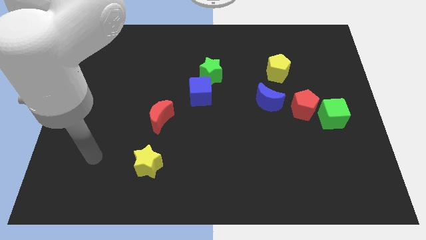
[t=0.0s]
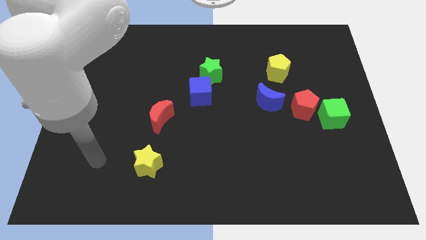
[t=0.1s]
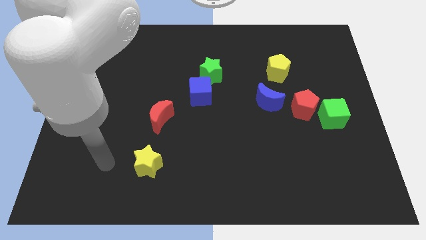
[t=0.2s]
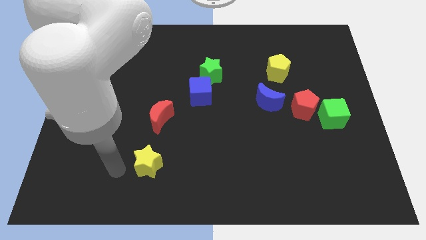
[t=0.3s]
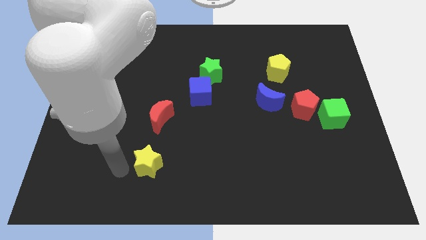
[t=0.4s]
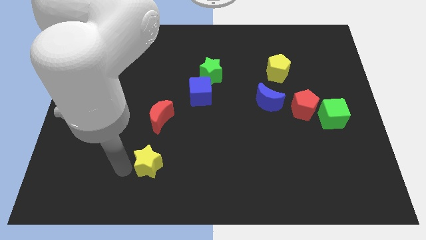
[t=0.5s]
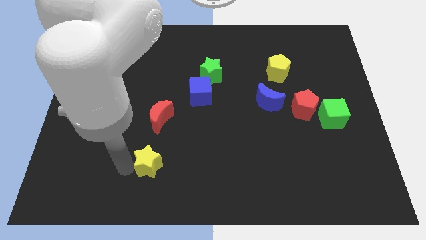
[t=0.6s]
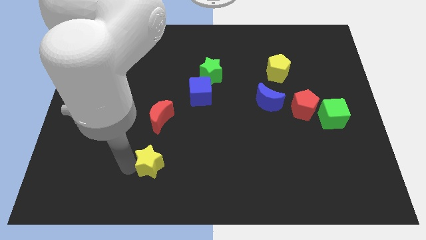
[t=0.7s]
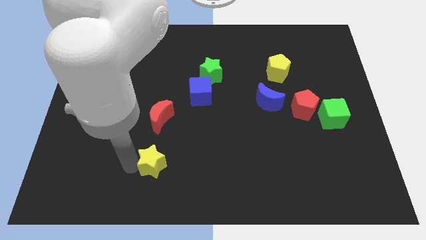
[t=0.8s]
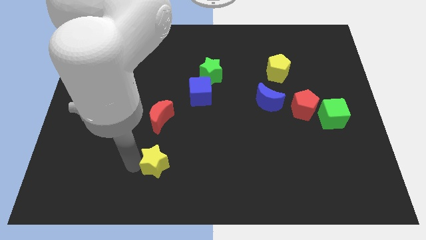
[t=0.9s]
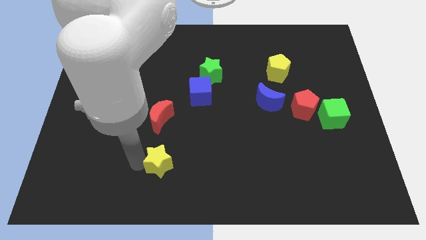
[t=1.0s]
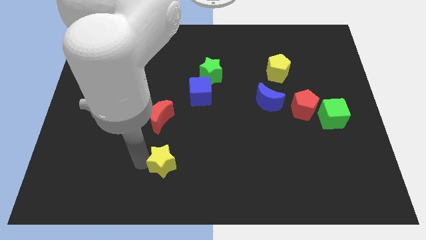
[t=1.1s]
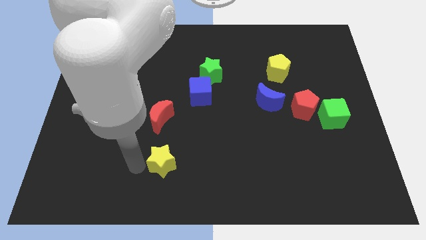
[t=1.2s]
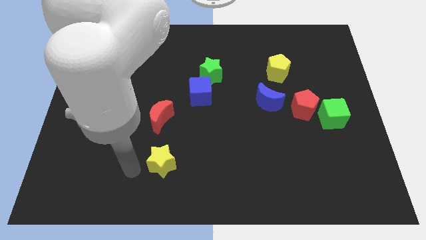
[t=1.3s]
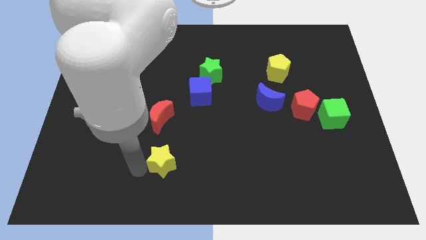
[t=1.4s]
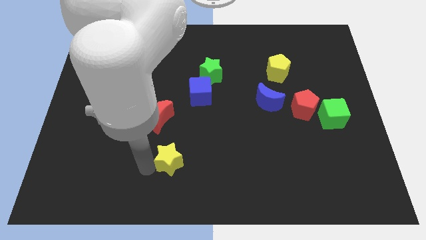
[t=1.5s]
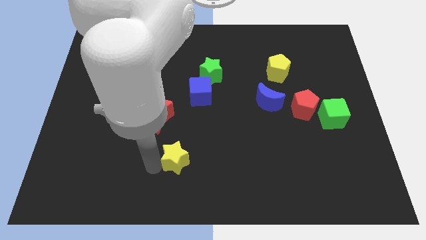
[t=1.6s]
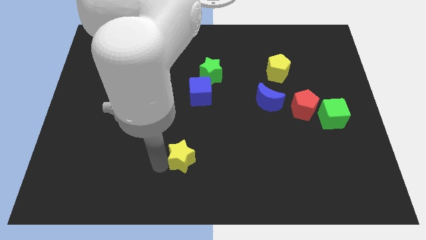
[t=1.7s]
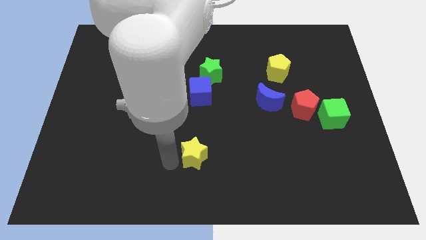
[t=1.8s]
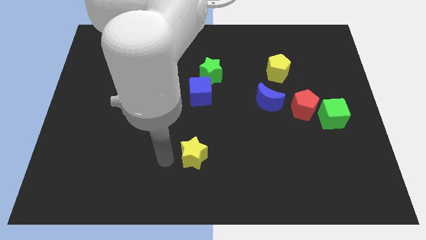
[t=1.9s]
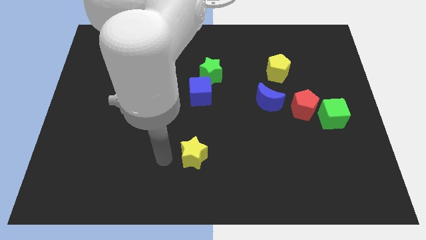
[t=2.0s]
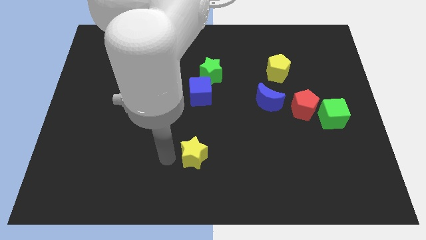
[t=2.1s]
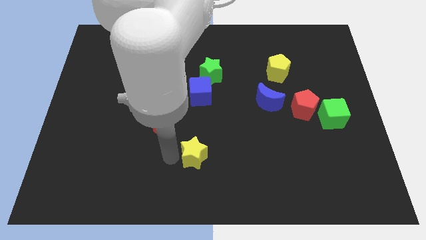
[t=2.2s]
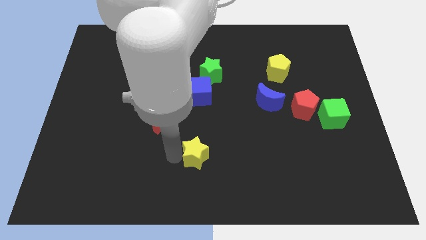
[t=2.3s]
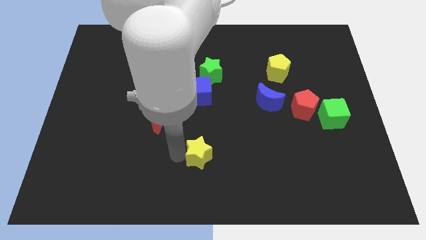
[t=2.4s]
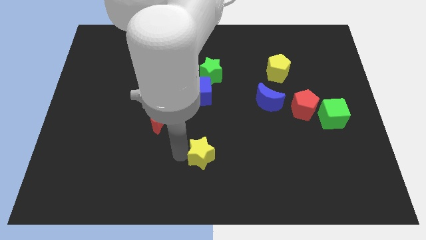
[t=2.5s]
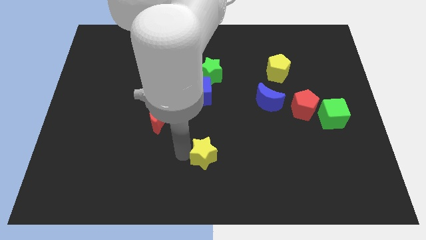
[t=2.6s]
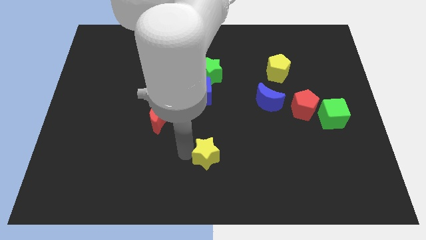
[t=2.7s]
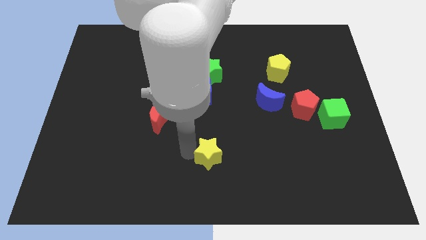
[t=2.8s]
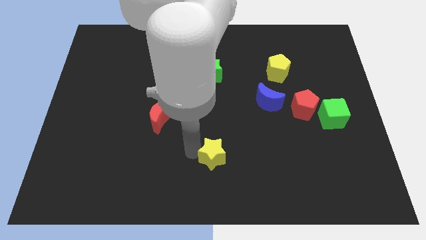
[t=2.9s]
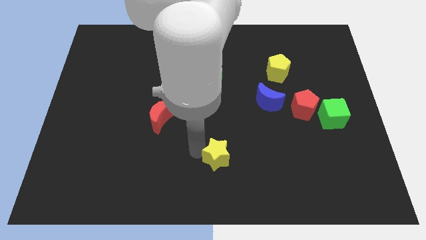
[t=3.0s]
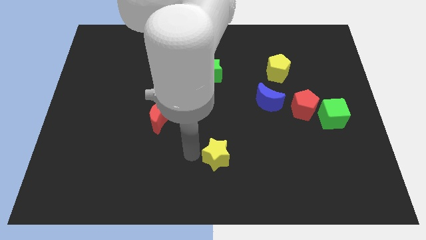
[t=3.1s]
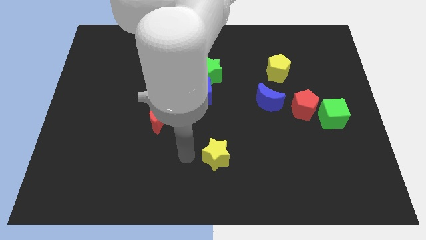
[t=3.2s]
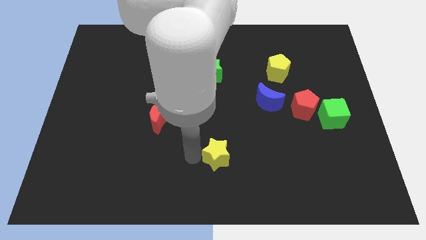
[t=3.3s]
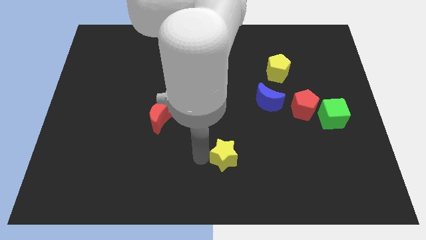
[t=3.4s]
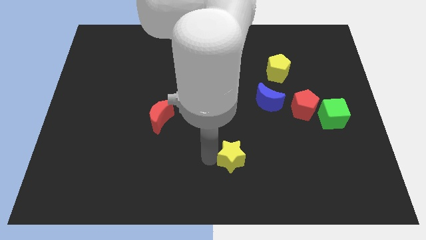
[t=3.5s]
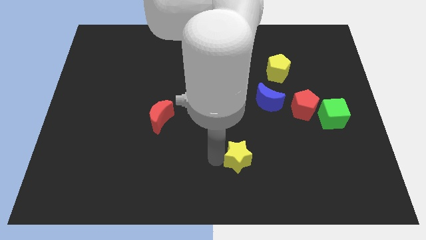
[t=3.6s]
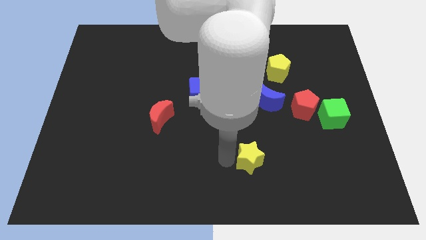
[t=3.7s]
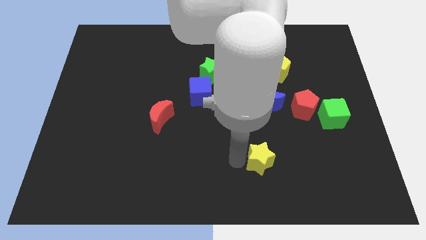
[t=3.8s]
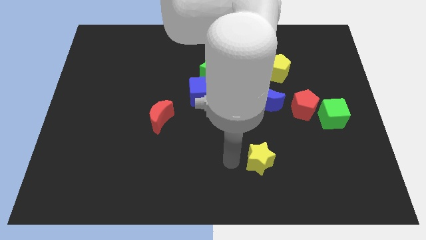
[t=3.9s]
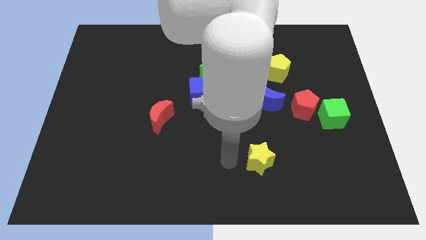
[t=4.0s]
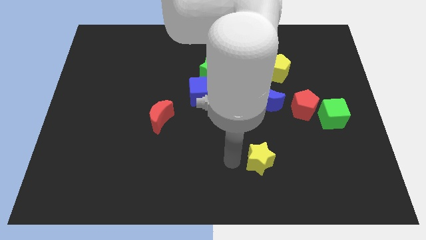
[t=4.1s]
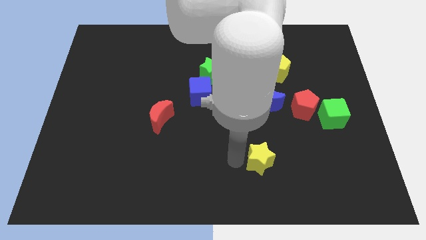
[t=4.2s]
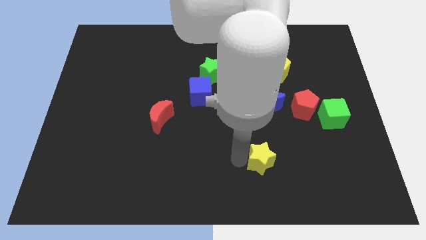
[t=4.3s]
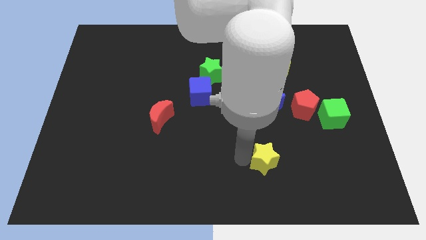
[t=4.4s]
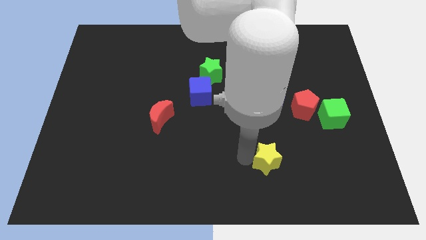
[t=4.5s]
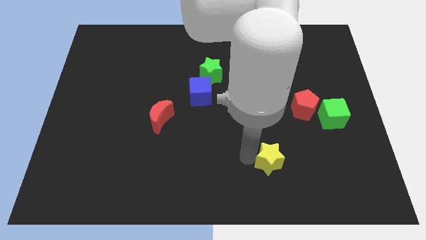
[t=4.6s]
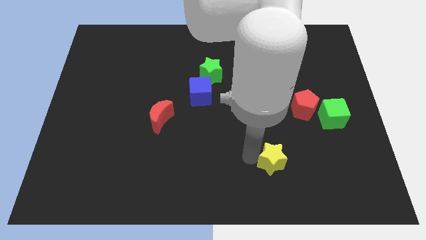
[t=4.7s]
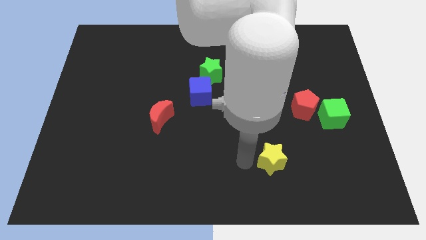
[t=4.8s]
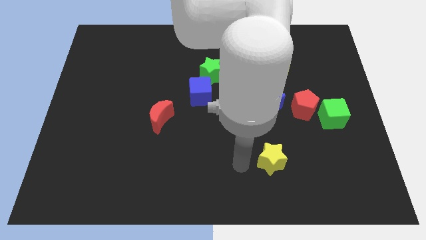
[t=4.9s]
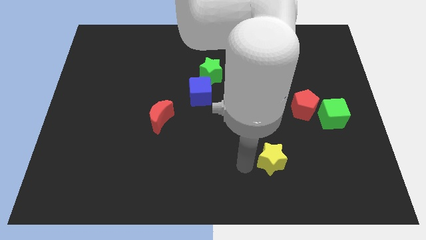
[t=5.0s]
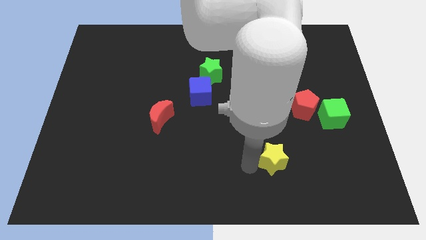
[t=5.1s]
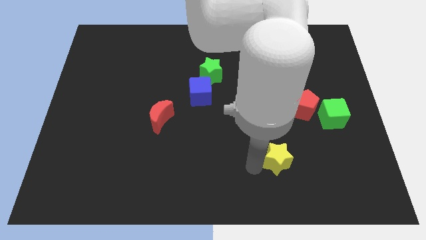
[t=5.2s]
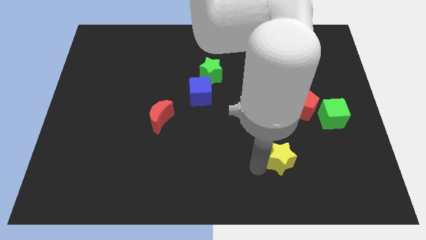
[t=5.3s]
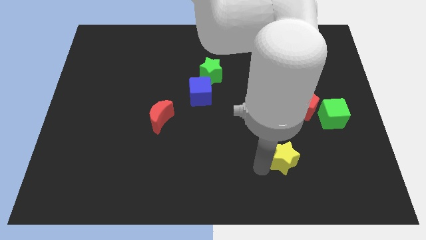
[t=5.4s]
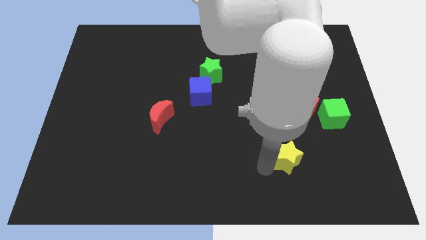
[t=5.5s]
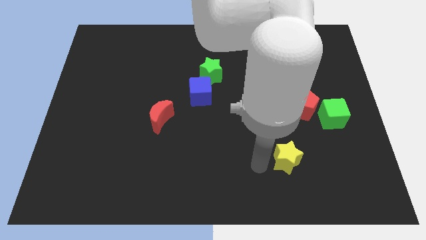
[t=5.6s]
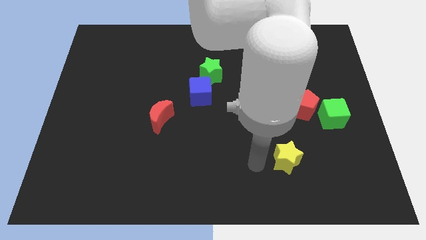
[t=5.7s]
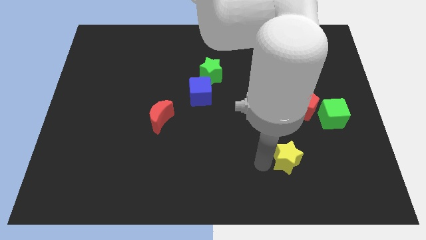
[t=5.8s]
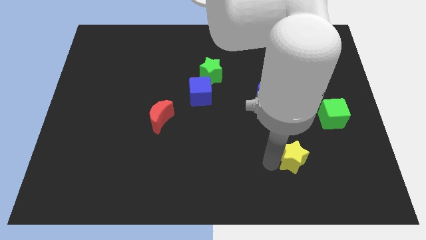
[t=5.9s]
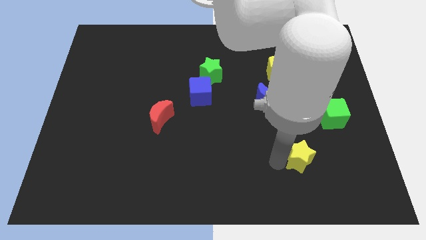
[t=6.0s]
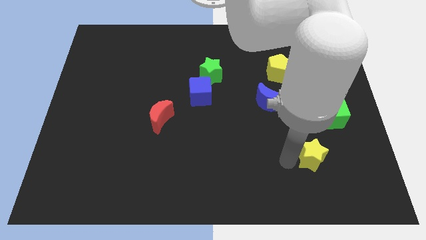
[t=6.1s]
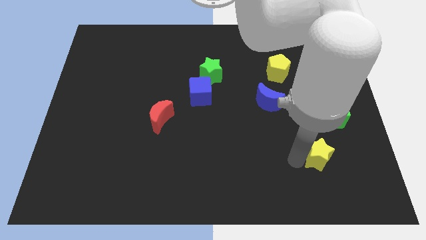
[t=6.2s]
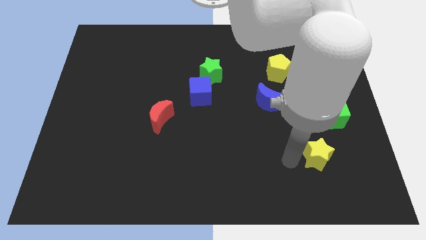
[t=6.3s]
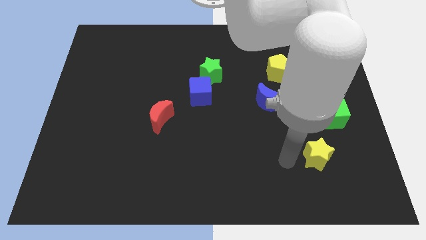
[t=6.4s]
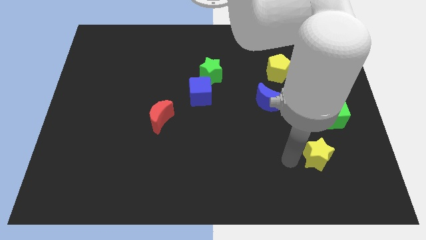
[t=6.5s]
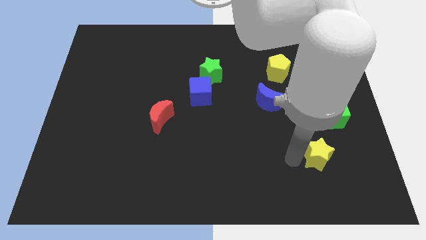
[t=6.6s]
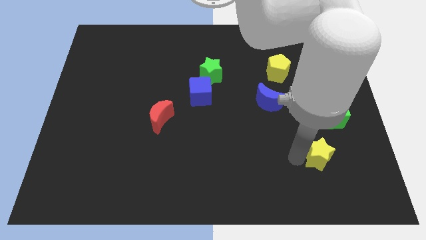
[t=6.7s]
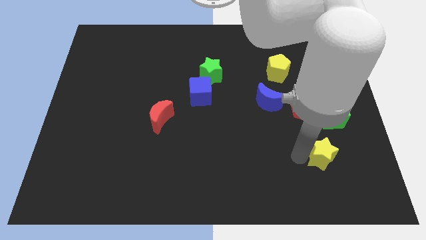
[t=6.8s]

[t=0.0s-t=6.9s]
move the yellow star below the green cube

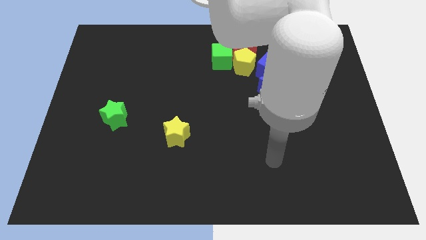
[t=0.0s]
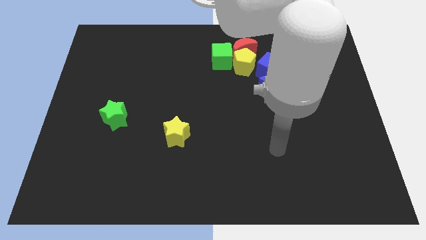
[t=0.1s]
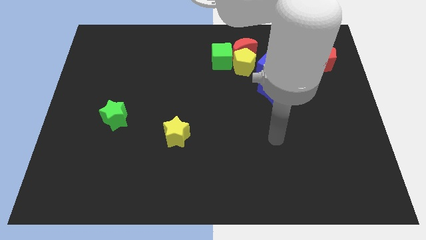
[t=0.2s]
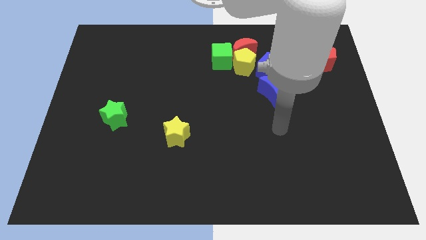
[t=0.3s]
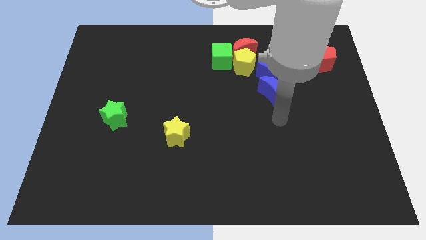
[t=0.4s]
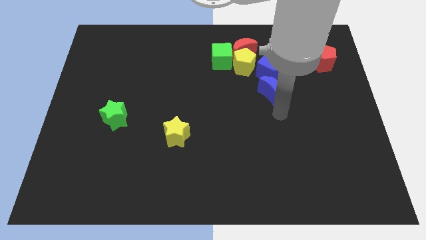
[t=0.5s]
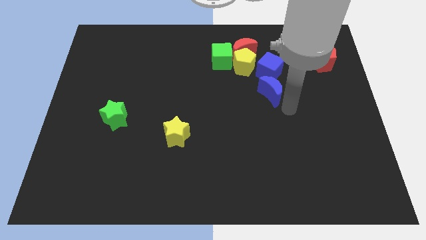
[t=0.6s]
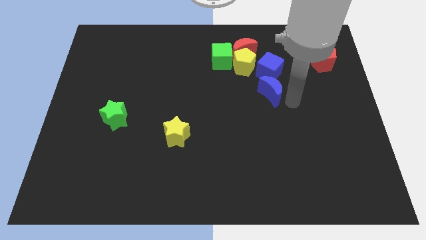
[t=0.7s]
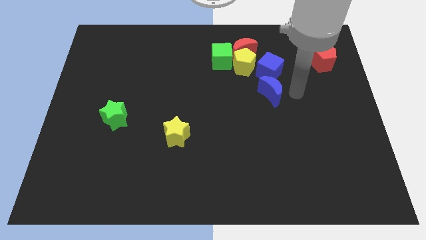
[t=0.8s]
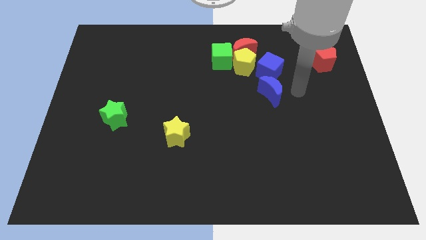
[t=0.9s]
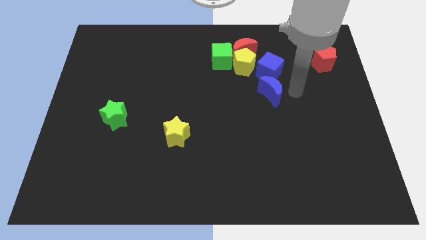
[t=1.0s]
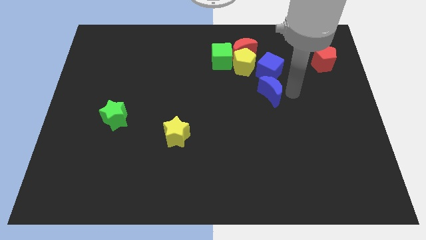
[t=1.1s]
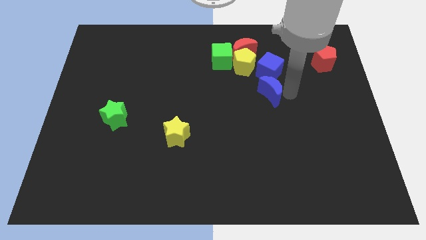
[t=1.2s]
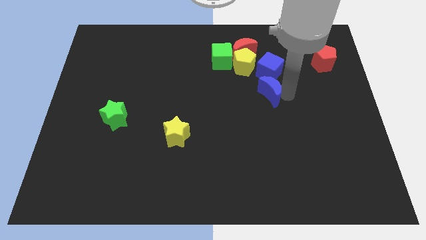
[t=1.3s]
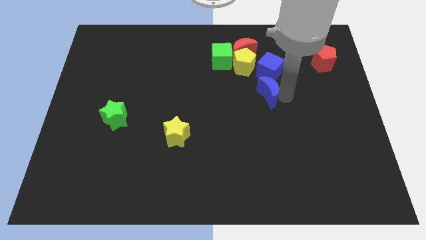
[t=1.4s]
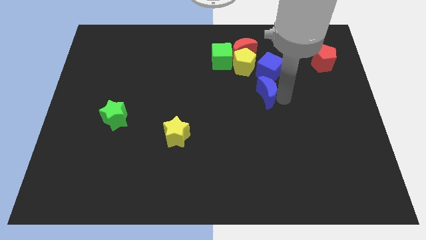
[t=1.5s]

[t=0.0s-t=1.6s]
put the blue moon to the bottom of the yellow pentagon
